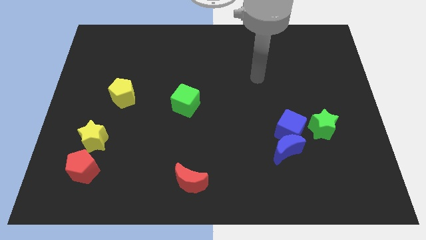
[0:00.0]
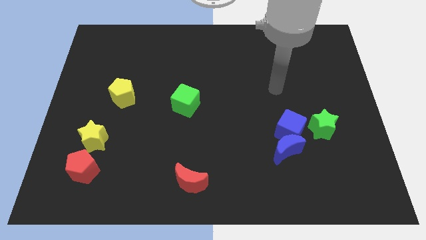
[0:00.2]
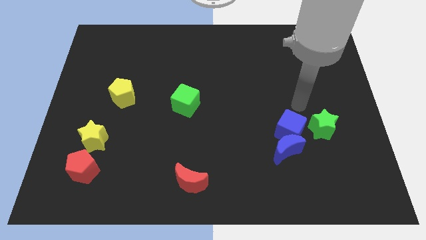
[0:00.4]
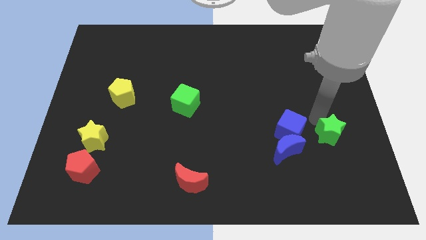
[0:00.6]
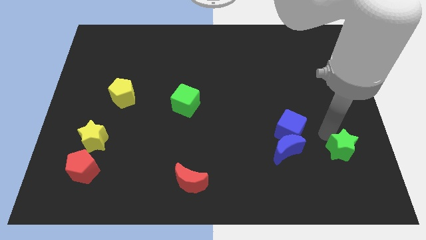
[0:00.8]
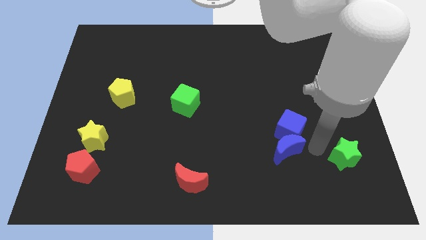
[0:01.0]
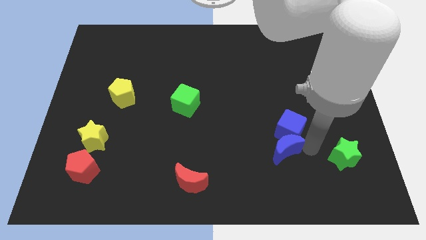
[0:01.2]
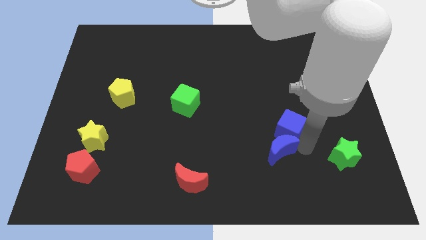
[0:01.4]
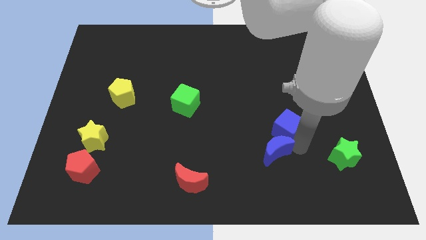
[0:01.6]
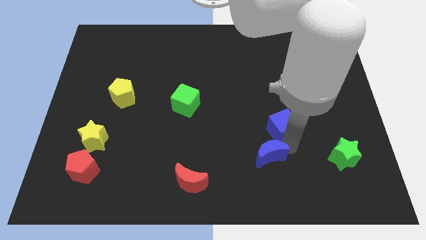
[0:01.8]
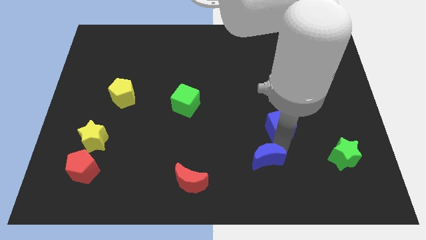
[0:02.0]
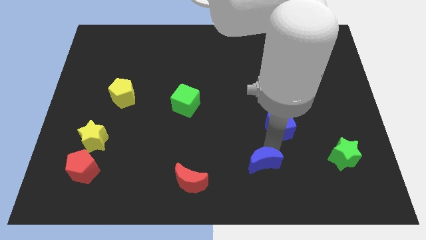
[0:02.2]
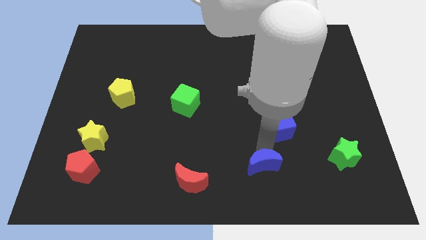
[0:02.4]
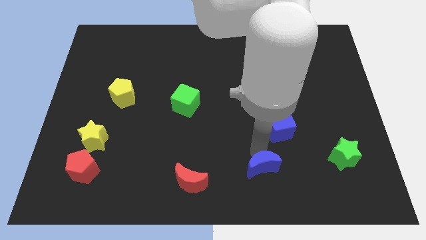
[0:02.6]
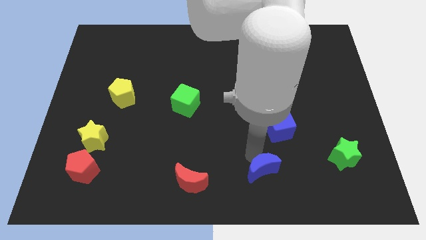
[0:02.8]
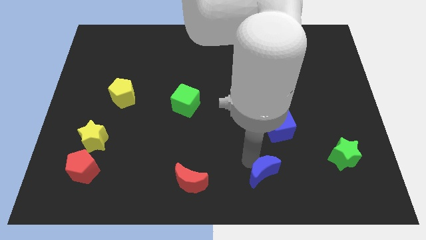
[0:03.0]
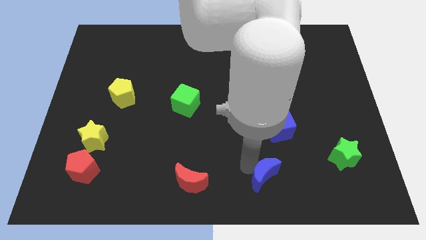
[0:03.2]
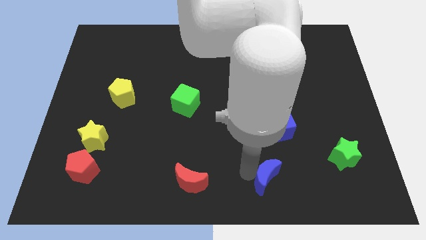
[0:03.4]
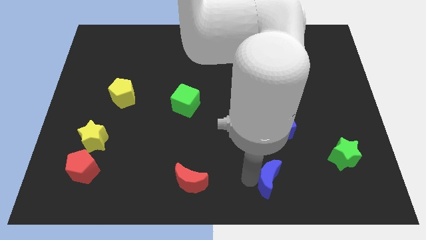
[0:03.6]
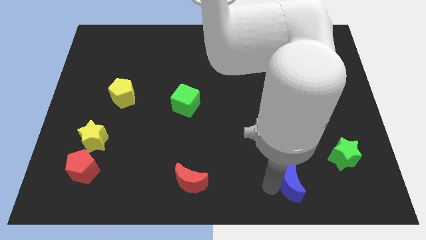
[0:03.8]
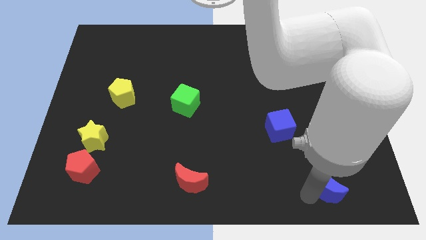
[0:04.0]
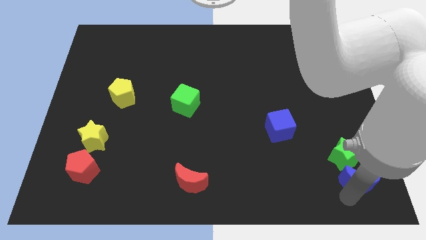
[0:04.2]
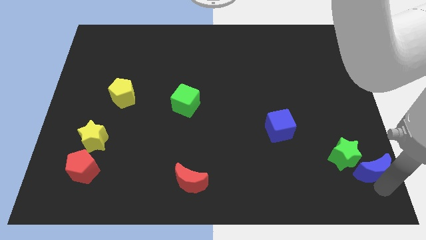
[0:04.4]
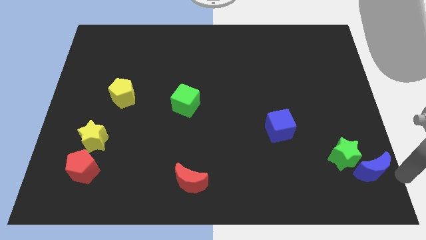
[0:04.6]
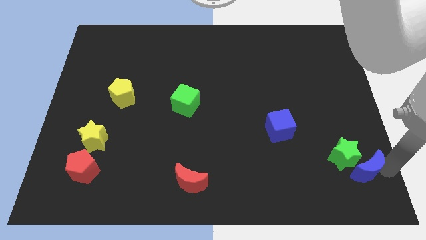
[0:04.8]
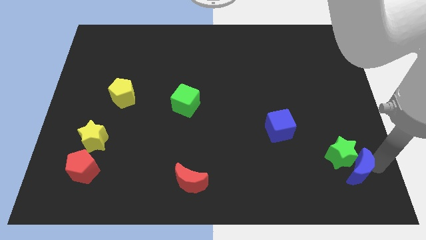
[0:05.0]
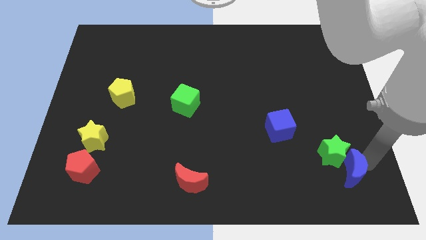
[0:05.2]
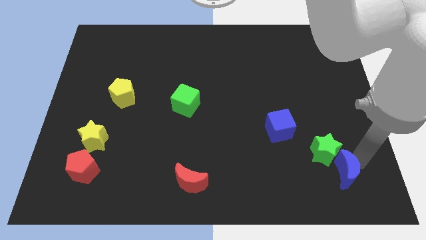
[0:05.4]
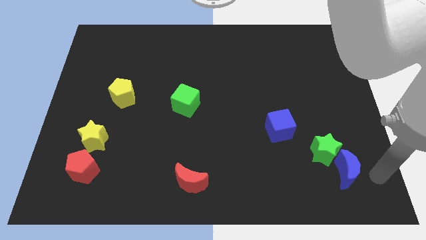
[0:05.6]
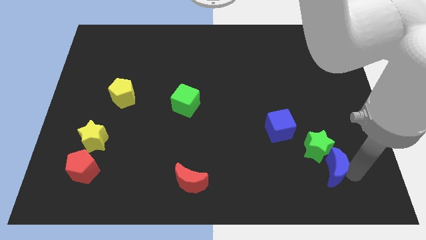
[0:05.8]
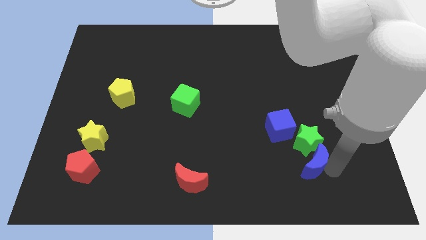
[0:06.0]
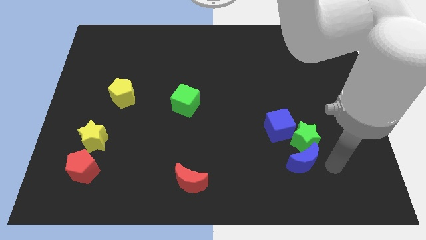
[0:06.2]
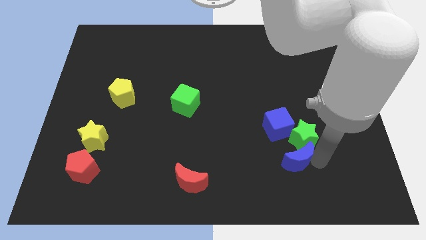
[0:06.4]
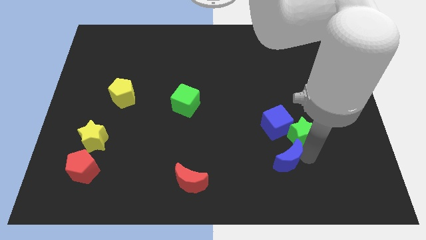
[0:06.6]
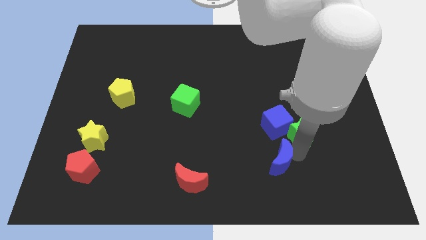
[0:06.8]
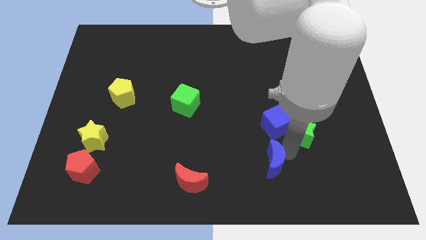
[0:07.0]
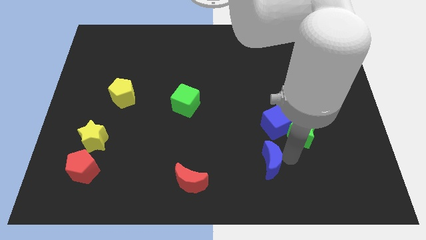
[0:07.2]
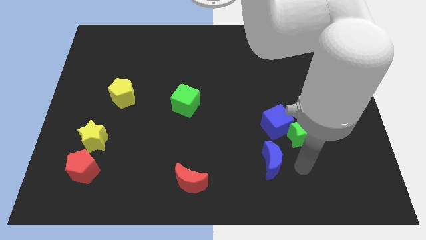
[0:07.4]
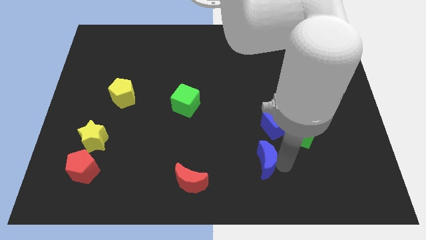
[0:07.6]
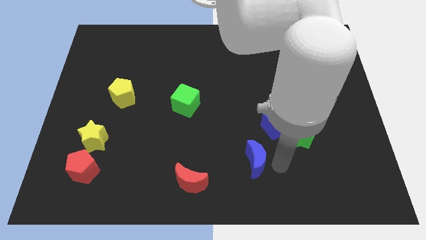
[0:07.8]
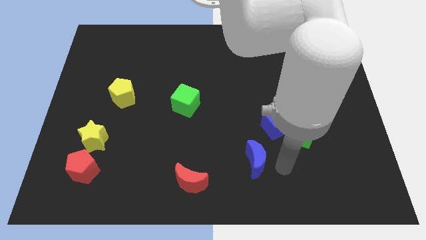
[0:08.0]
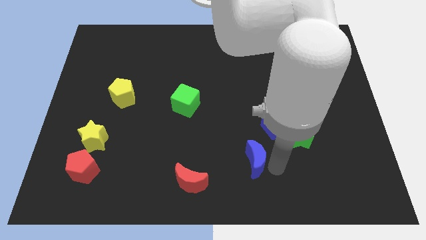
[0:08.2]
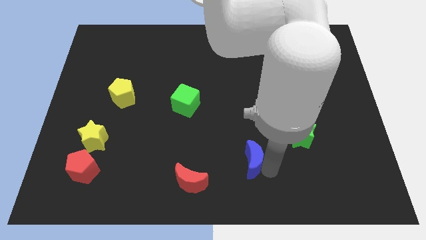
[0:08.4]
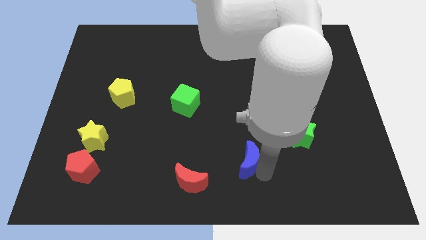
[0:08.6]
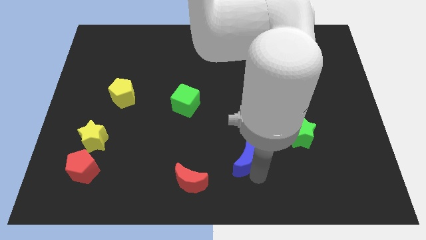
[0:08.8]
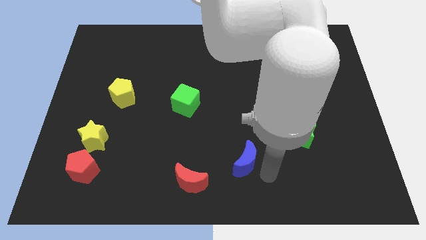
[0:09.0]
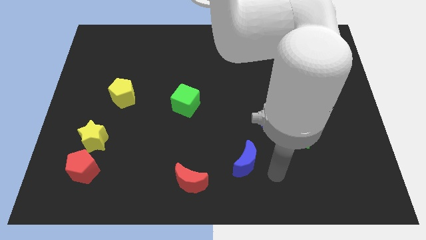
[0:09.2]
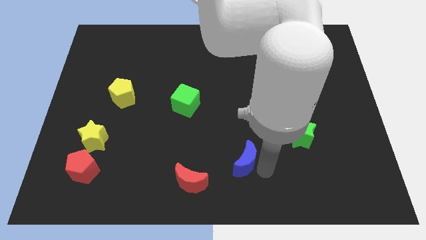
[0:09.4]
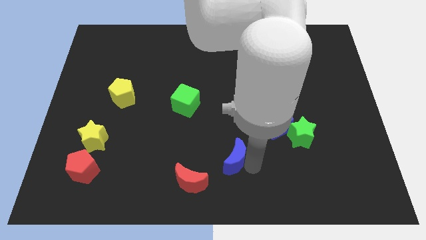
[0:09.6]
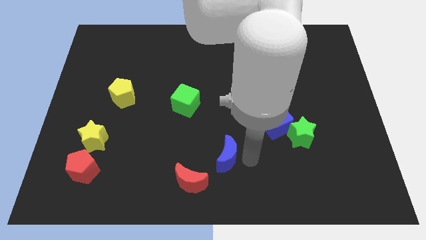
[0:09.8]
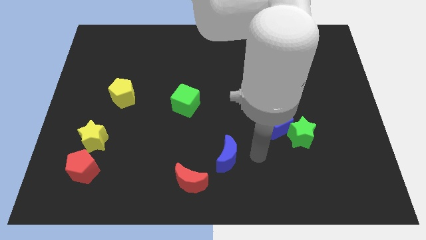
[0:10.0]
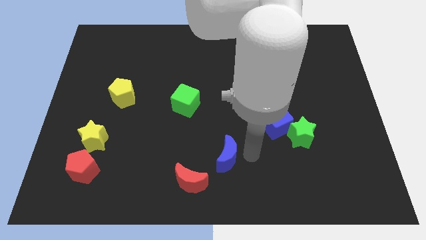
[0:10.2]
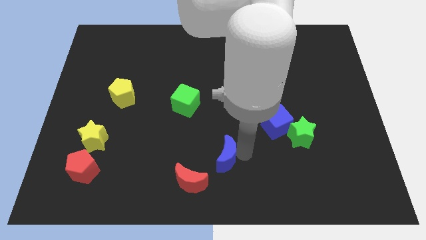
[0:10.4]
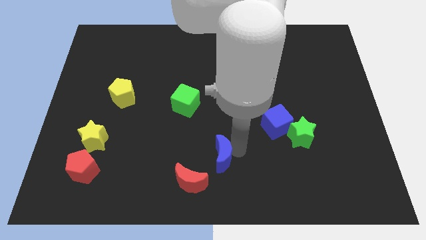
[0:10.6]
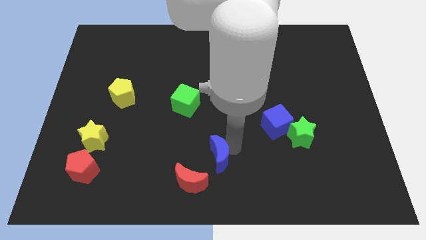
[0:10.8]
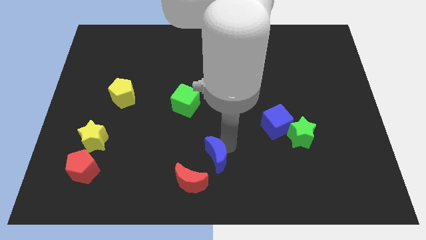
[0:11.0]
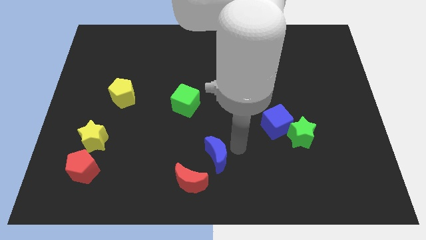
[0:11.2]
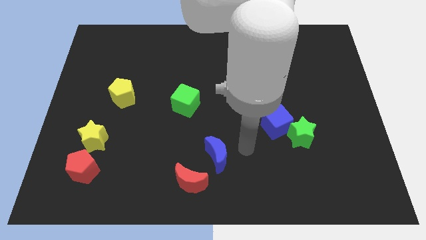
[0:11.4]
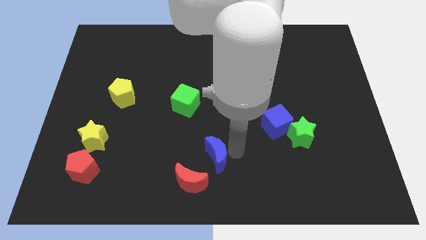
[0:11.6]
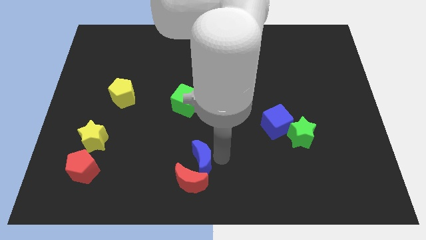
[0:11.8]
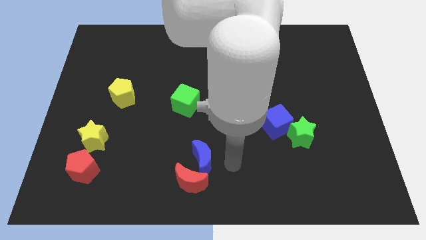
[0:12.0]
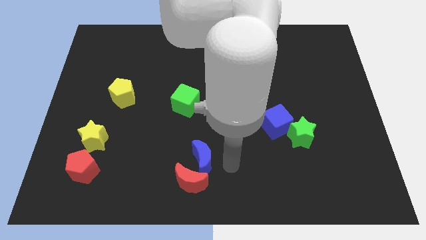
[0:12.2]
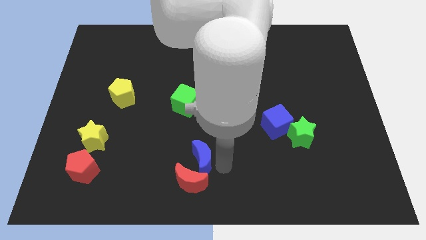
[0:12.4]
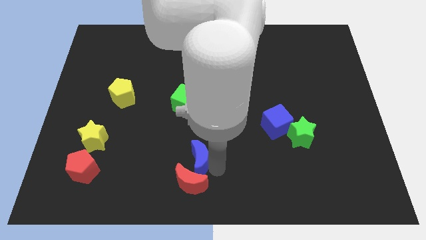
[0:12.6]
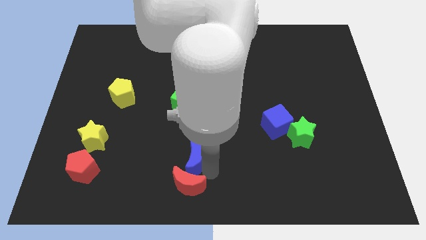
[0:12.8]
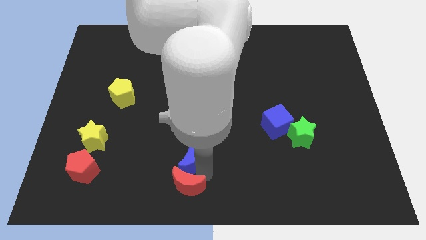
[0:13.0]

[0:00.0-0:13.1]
move the blue moon left

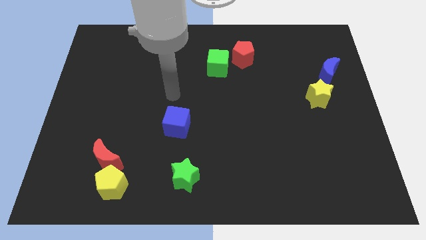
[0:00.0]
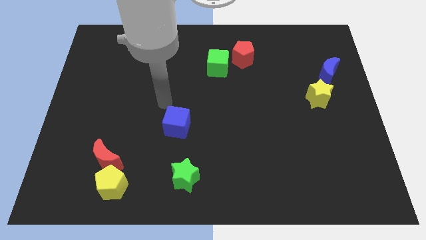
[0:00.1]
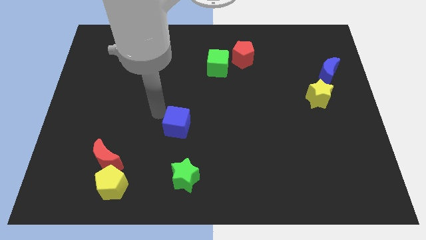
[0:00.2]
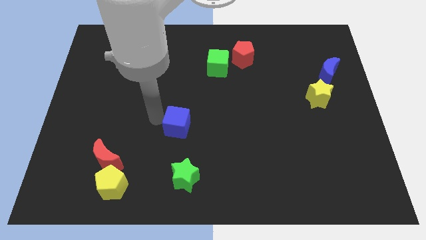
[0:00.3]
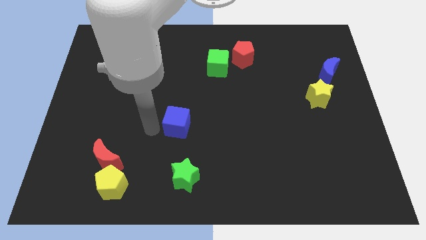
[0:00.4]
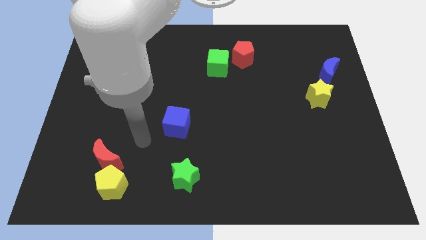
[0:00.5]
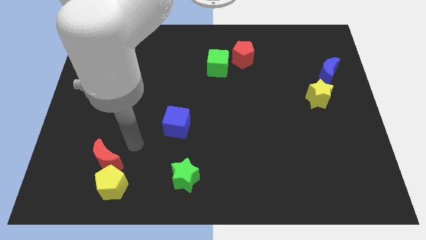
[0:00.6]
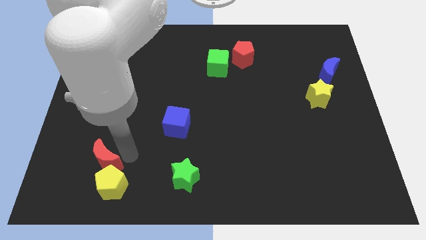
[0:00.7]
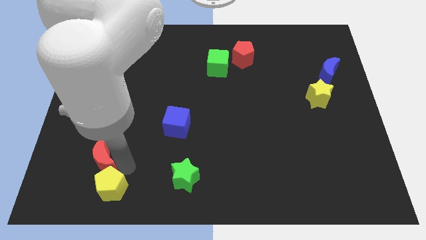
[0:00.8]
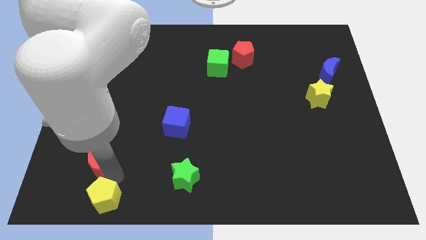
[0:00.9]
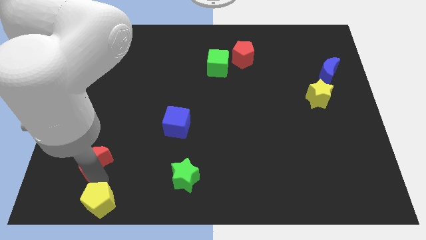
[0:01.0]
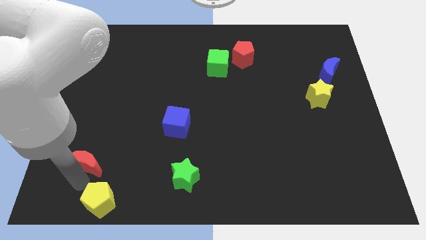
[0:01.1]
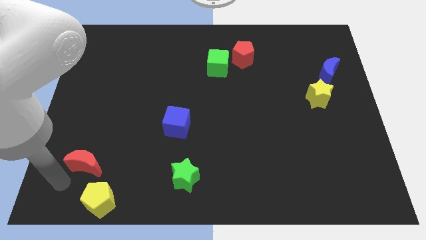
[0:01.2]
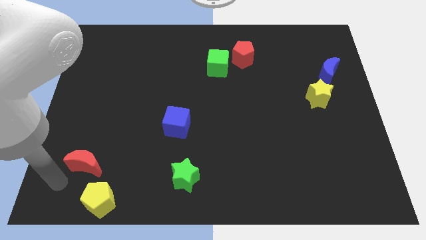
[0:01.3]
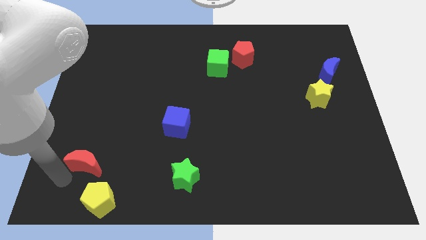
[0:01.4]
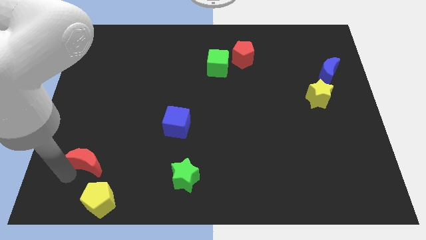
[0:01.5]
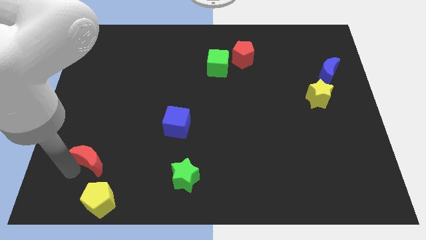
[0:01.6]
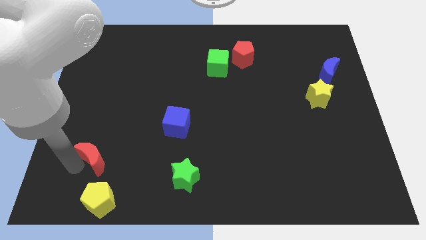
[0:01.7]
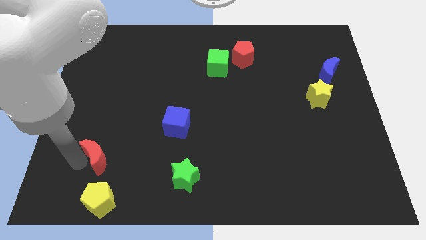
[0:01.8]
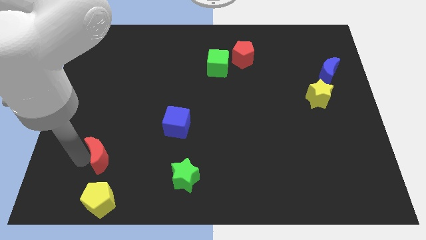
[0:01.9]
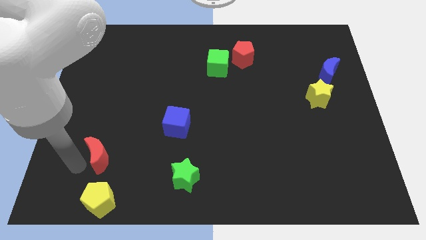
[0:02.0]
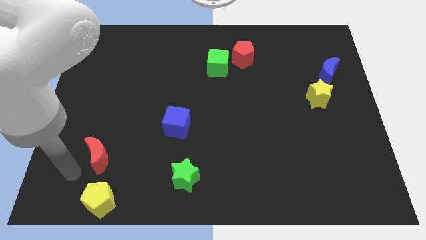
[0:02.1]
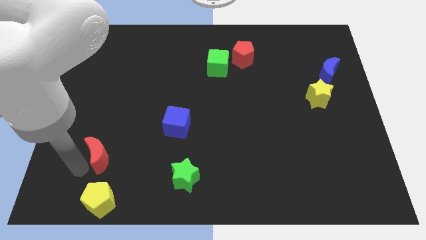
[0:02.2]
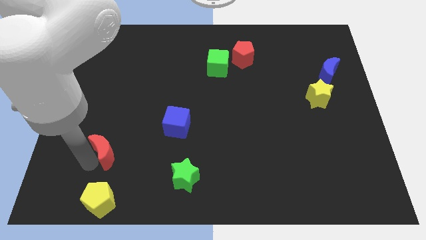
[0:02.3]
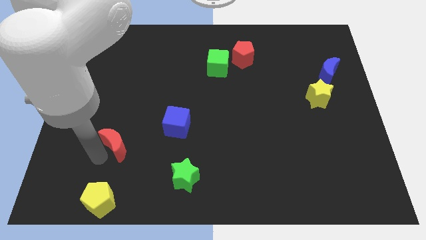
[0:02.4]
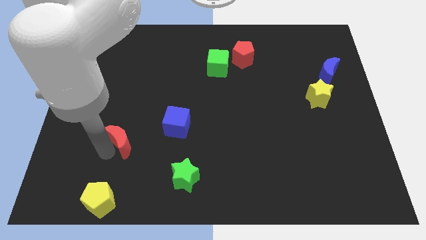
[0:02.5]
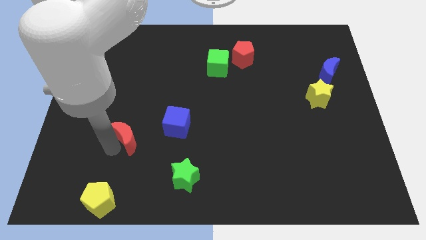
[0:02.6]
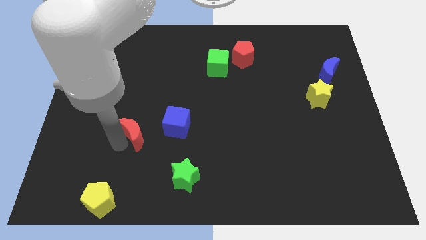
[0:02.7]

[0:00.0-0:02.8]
slide the red moon a bit upwards and then right
